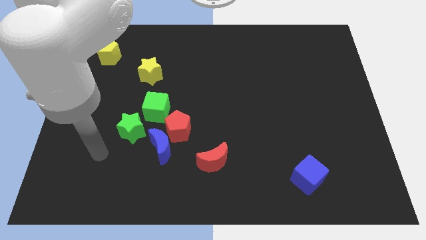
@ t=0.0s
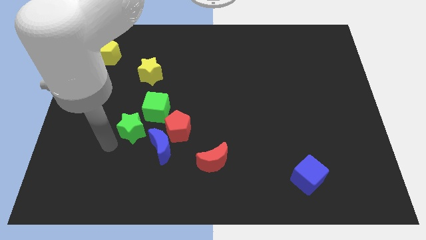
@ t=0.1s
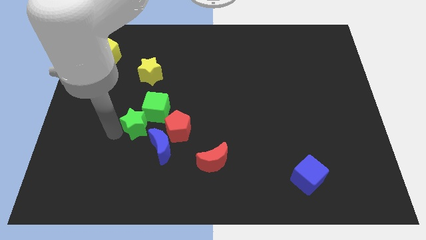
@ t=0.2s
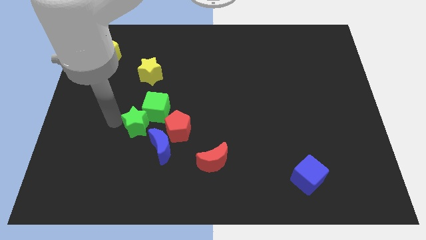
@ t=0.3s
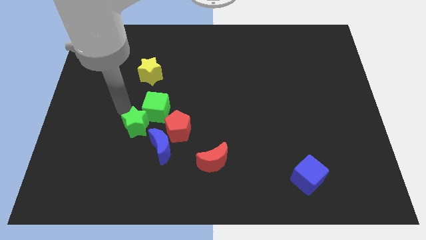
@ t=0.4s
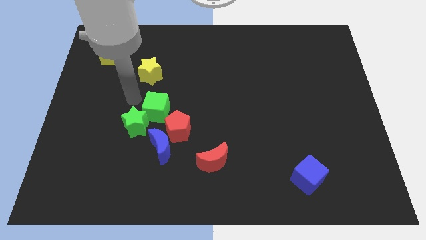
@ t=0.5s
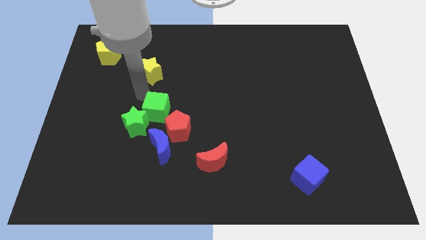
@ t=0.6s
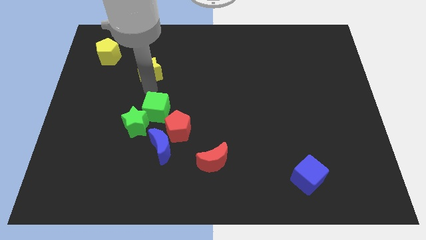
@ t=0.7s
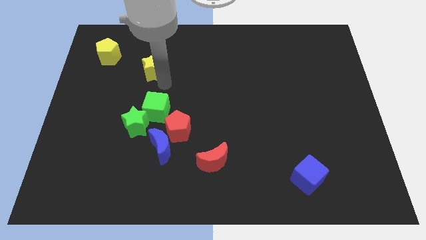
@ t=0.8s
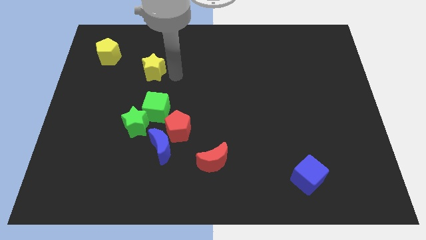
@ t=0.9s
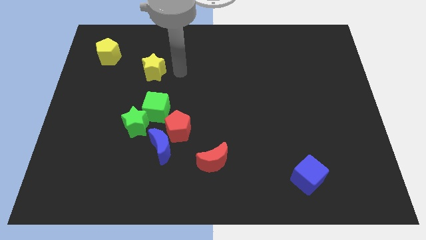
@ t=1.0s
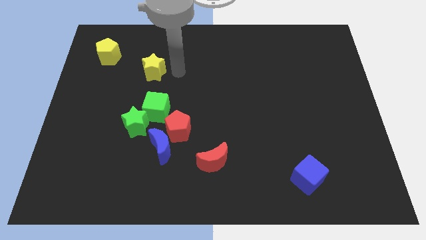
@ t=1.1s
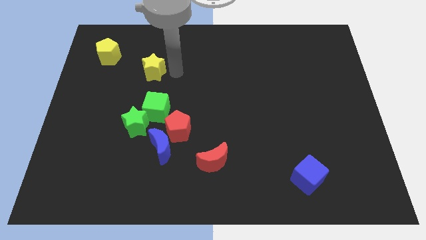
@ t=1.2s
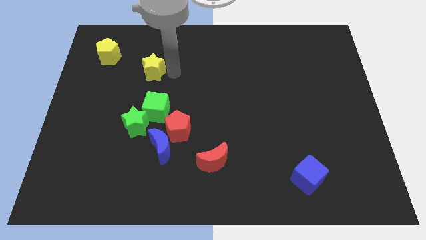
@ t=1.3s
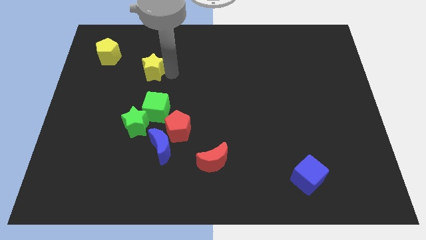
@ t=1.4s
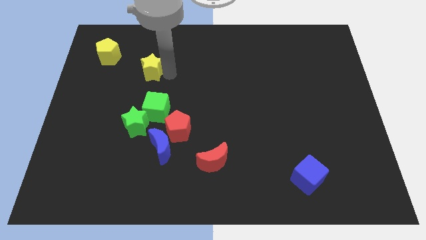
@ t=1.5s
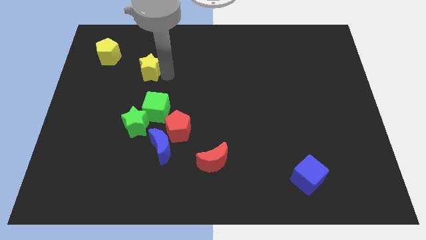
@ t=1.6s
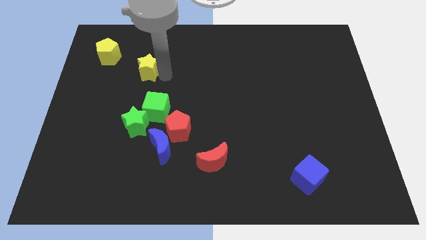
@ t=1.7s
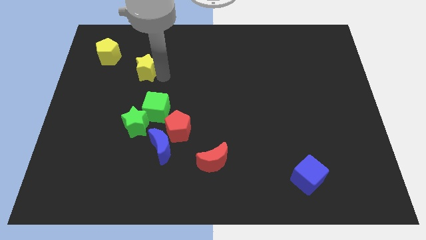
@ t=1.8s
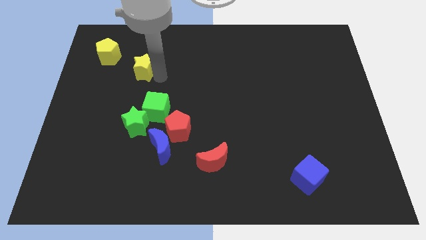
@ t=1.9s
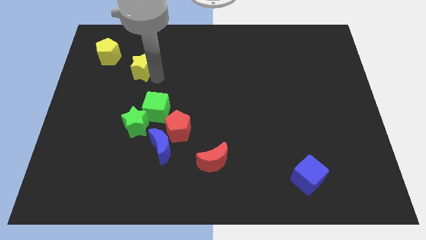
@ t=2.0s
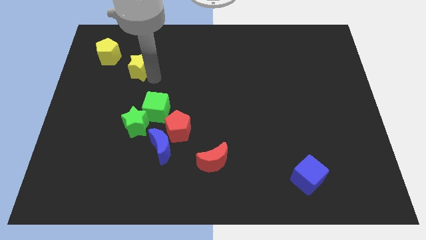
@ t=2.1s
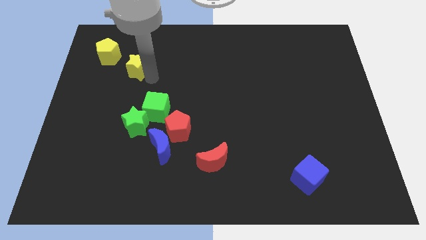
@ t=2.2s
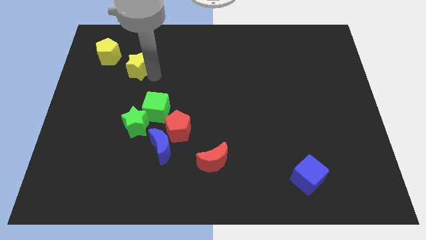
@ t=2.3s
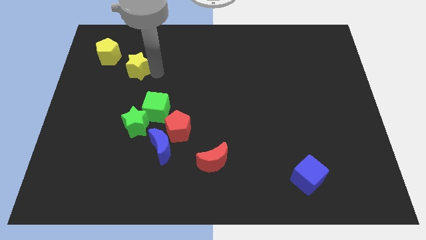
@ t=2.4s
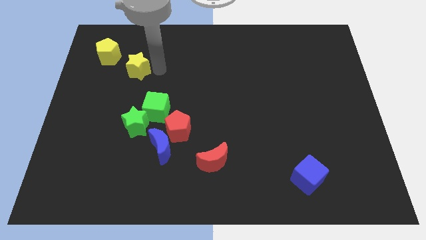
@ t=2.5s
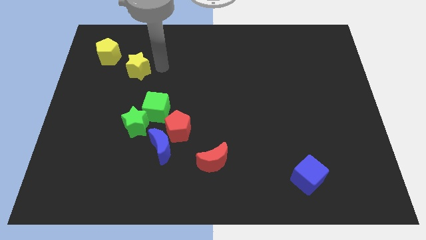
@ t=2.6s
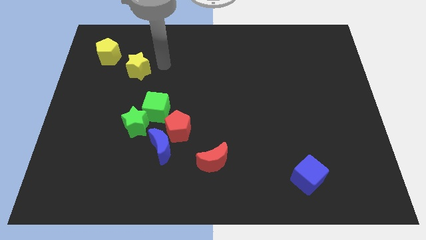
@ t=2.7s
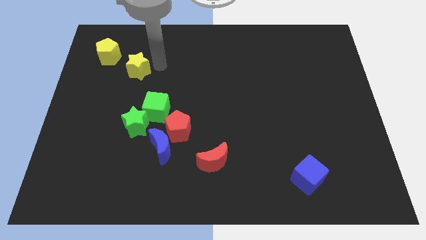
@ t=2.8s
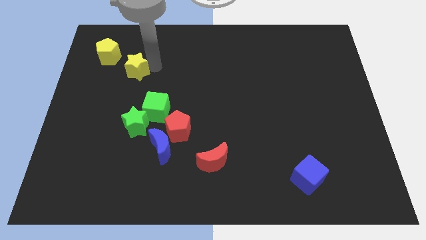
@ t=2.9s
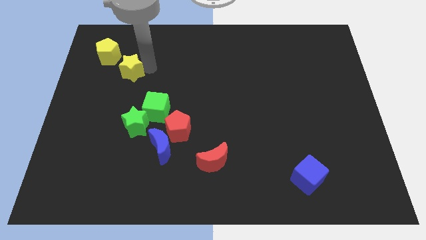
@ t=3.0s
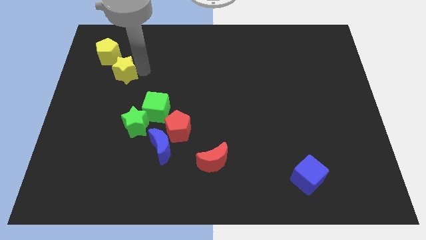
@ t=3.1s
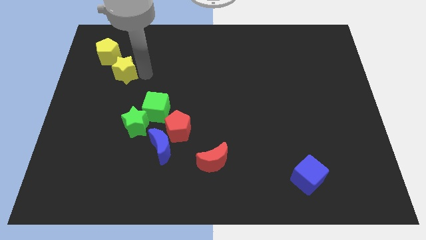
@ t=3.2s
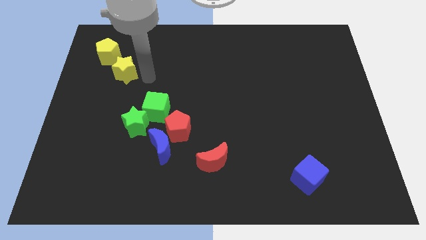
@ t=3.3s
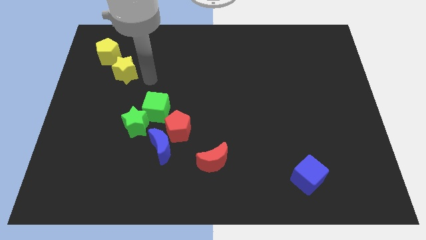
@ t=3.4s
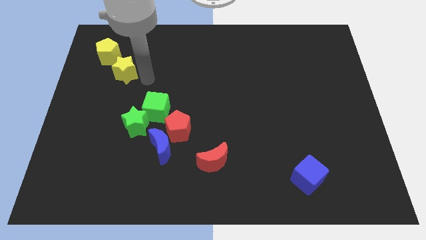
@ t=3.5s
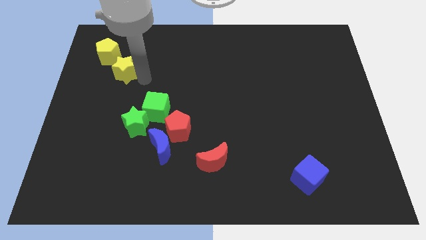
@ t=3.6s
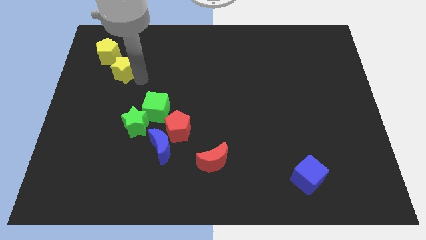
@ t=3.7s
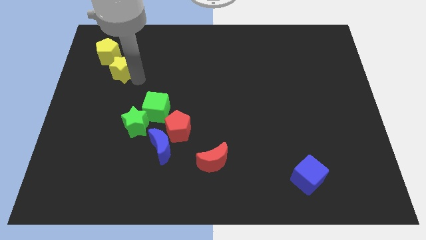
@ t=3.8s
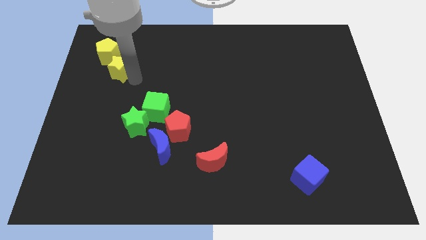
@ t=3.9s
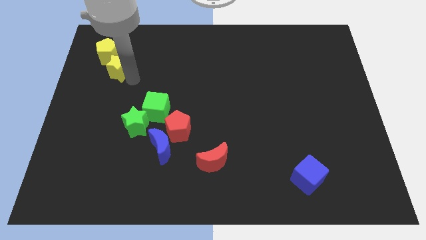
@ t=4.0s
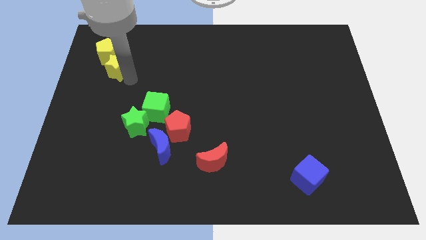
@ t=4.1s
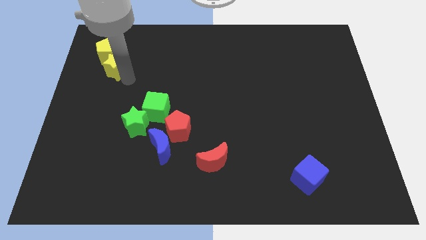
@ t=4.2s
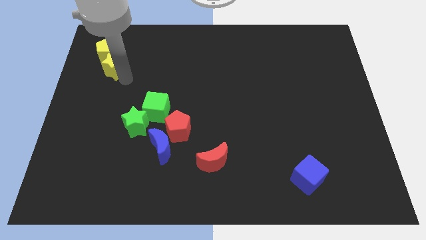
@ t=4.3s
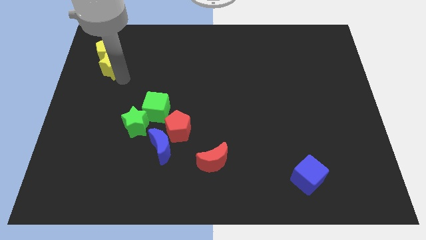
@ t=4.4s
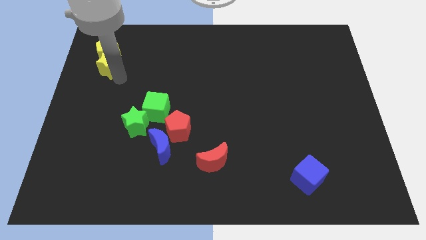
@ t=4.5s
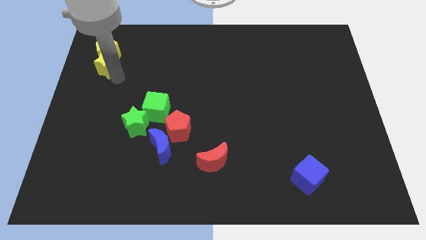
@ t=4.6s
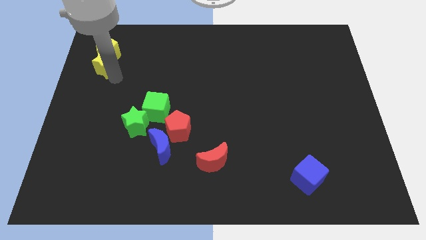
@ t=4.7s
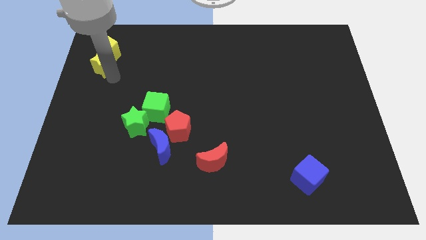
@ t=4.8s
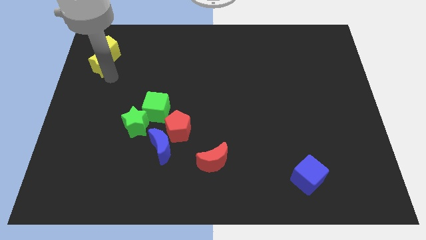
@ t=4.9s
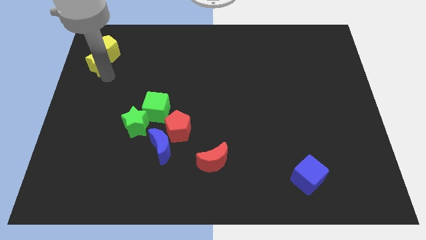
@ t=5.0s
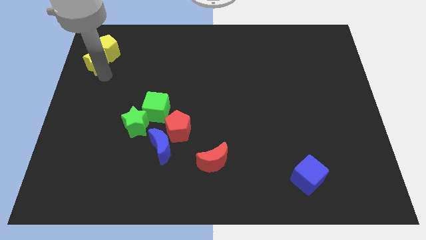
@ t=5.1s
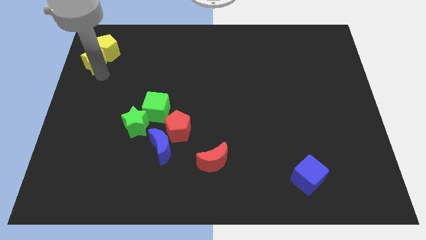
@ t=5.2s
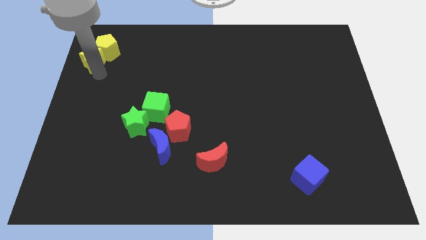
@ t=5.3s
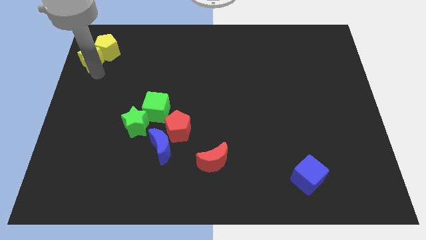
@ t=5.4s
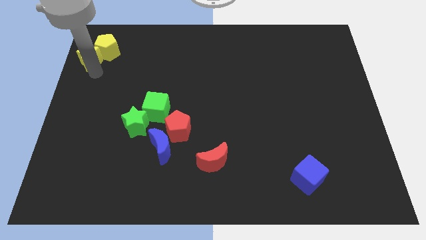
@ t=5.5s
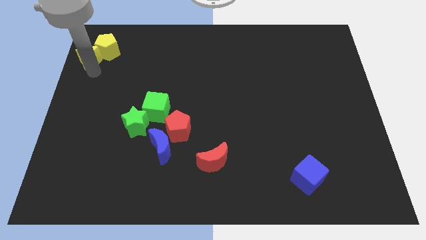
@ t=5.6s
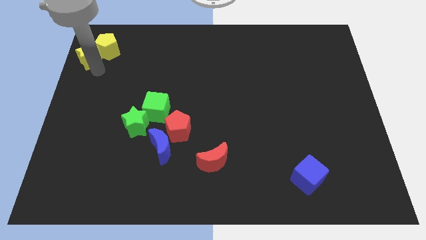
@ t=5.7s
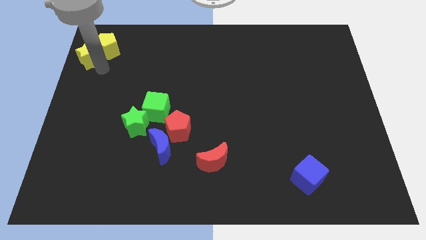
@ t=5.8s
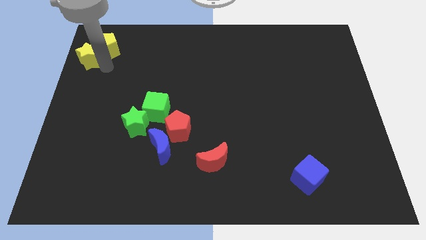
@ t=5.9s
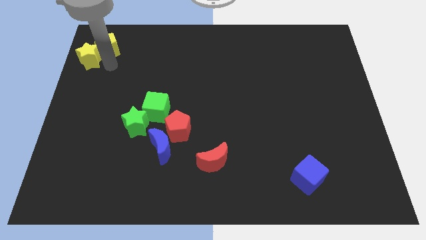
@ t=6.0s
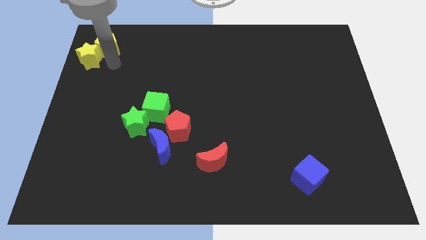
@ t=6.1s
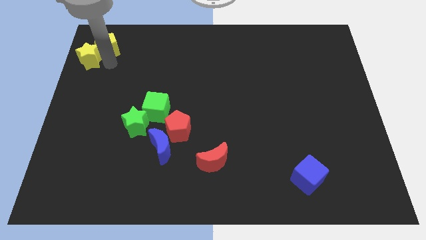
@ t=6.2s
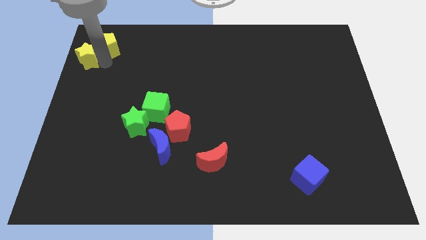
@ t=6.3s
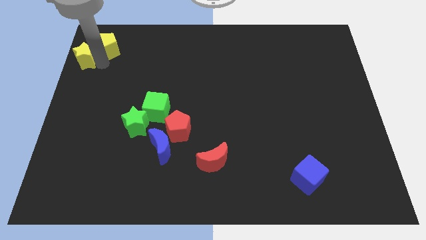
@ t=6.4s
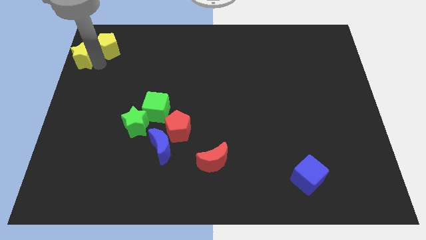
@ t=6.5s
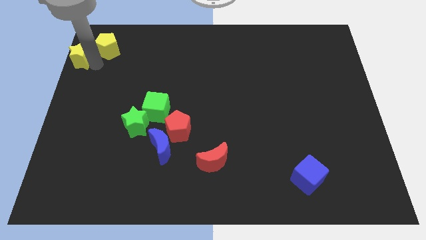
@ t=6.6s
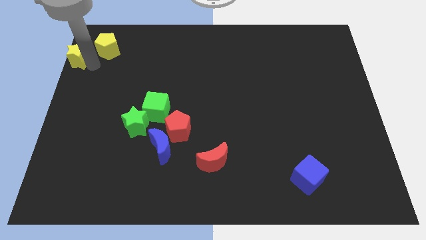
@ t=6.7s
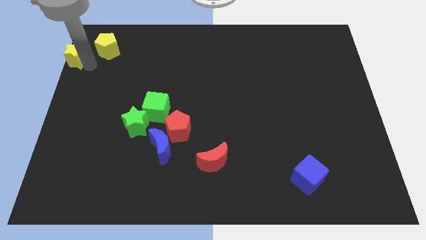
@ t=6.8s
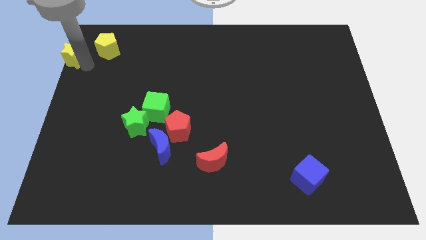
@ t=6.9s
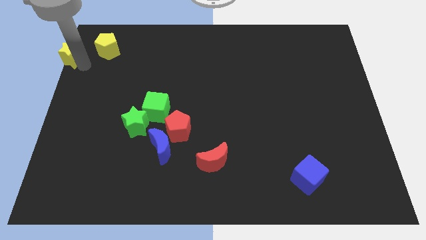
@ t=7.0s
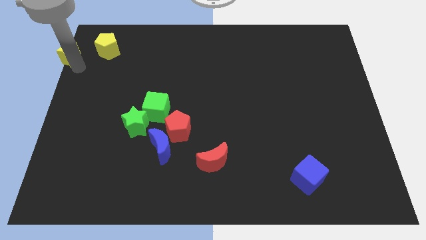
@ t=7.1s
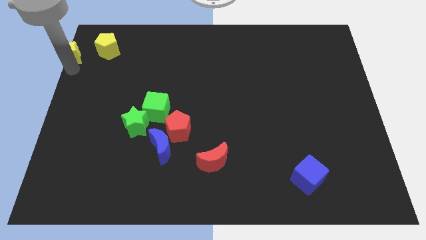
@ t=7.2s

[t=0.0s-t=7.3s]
push the yellow star to the upper left corner

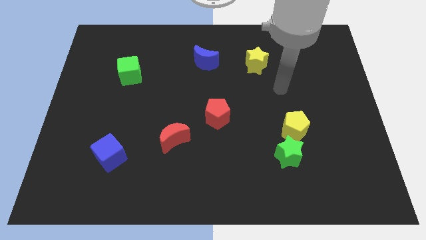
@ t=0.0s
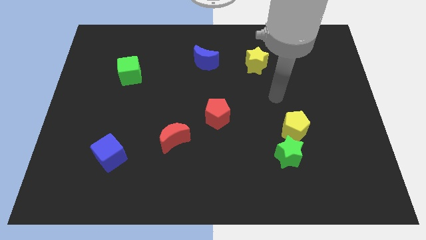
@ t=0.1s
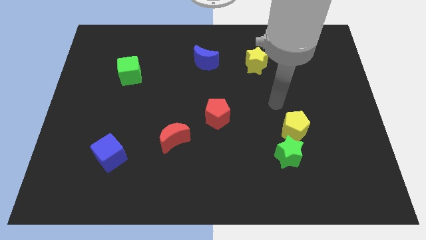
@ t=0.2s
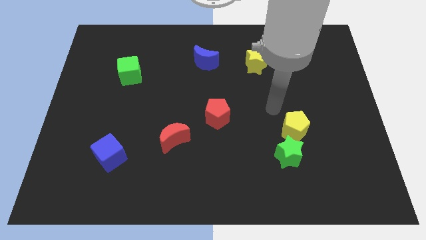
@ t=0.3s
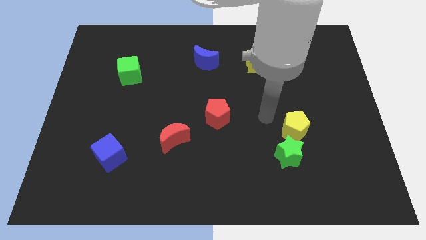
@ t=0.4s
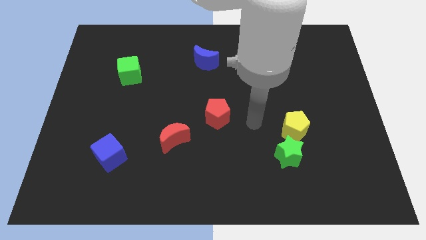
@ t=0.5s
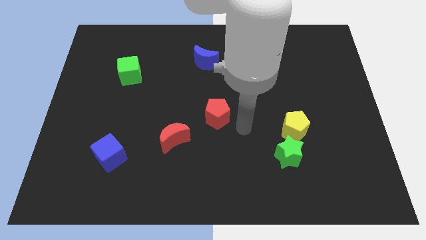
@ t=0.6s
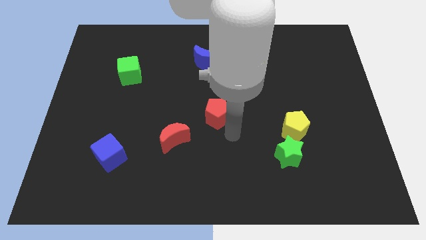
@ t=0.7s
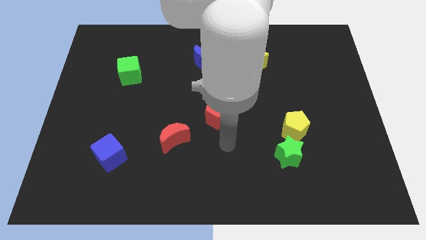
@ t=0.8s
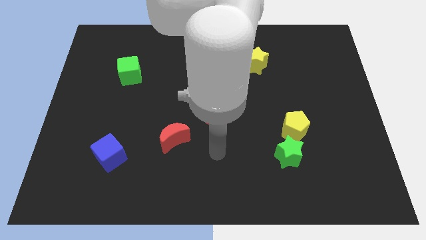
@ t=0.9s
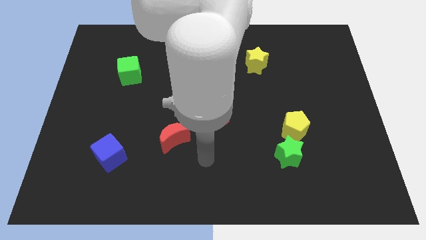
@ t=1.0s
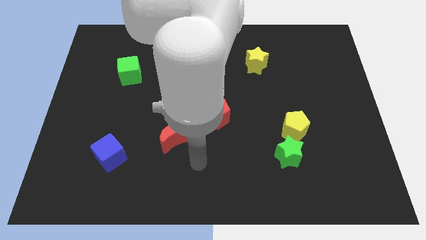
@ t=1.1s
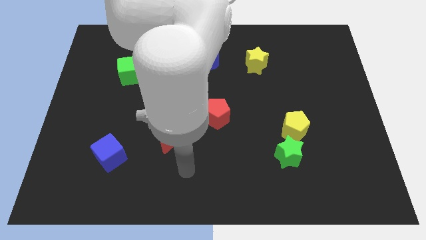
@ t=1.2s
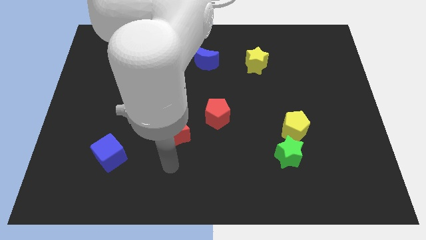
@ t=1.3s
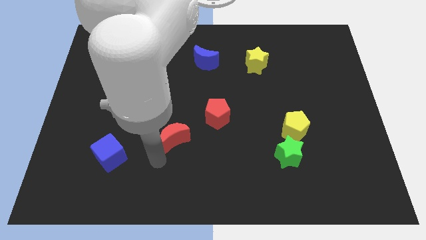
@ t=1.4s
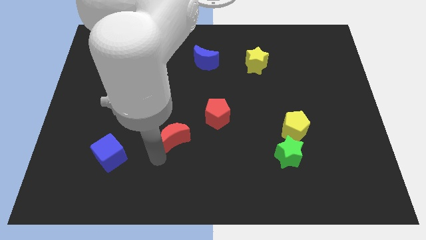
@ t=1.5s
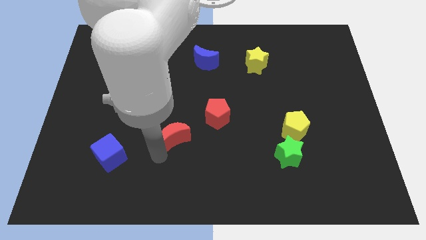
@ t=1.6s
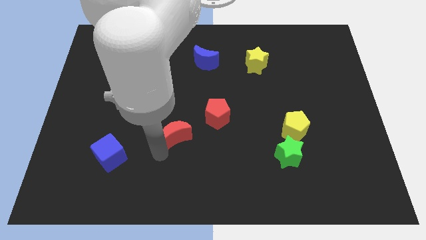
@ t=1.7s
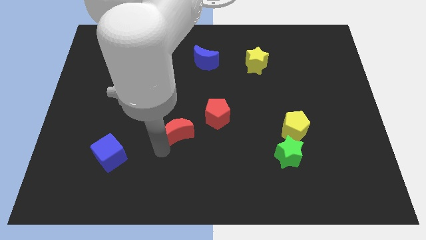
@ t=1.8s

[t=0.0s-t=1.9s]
slide the red moon to the middle of the board
